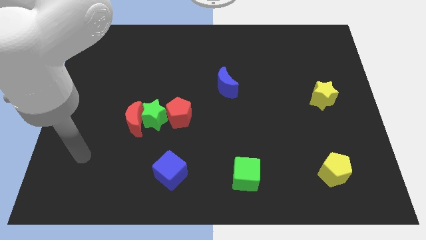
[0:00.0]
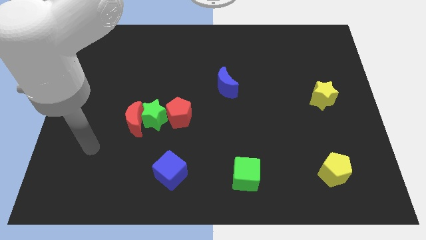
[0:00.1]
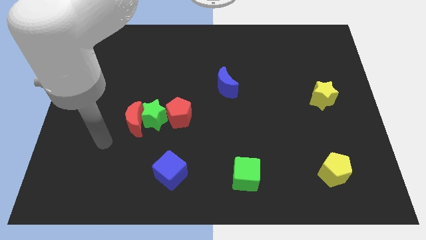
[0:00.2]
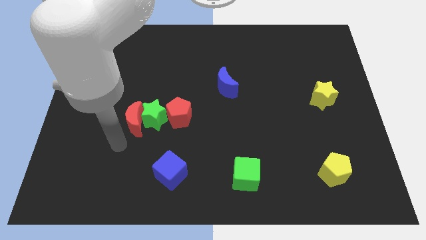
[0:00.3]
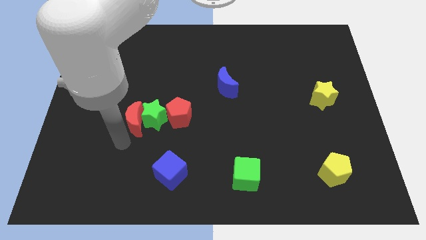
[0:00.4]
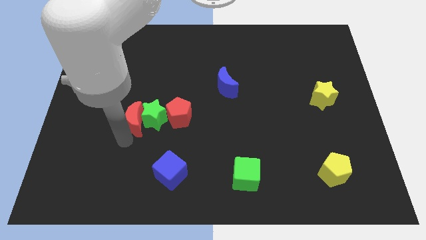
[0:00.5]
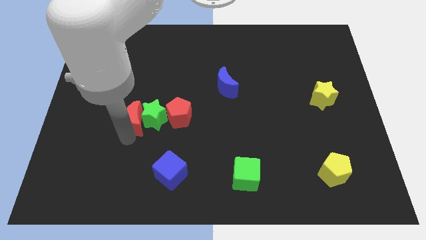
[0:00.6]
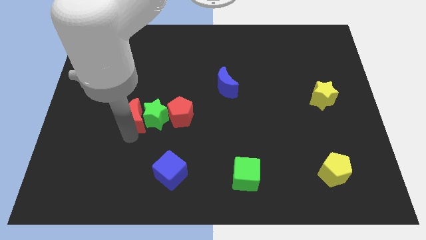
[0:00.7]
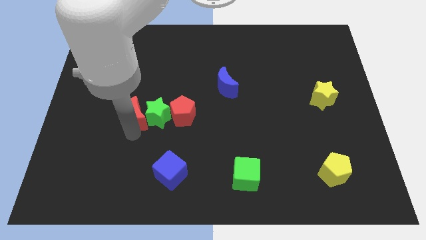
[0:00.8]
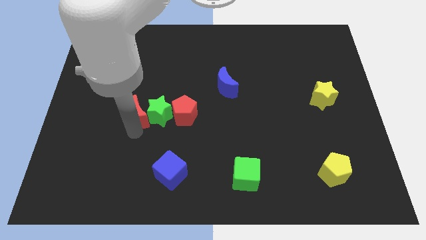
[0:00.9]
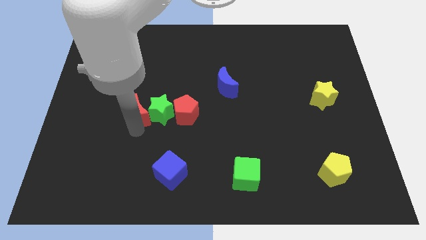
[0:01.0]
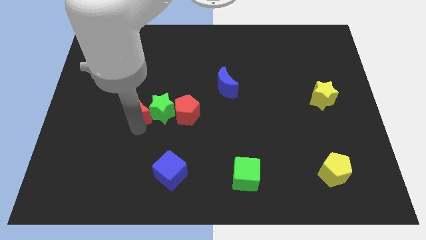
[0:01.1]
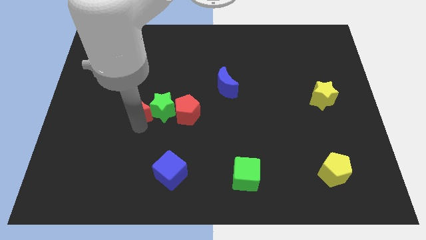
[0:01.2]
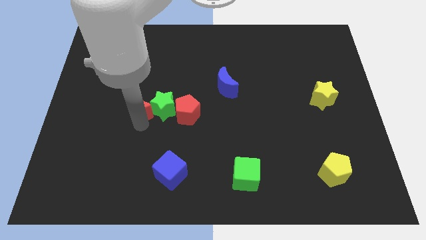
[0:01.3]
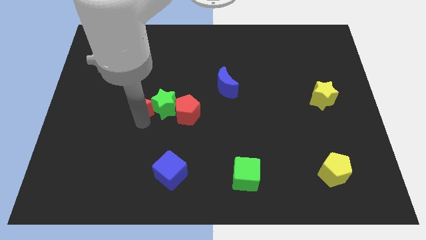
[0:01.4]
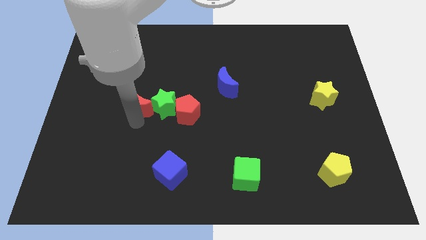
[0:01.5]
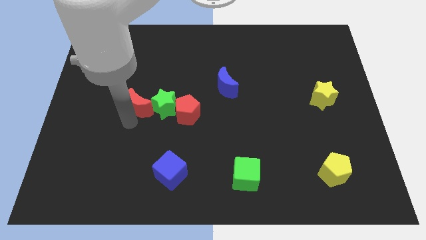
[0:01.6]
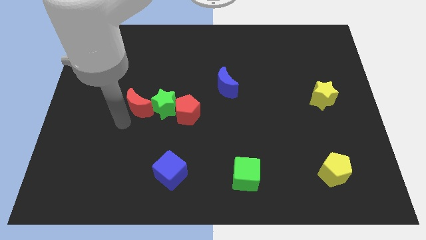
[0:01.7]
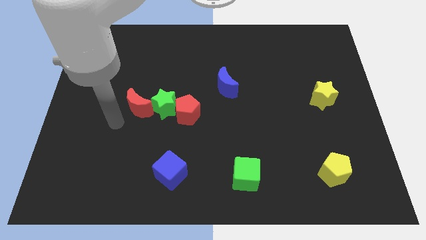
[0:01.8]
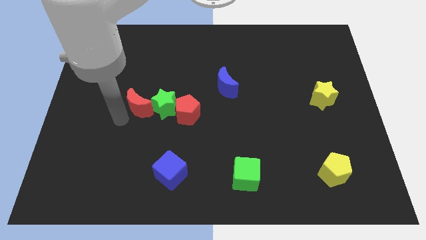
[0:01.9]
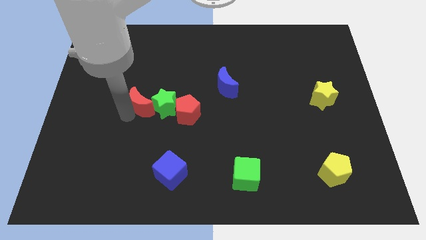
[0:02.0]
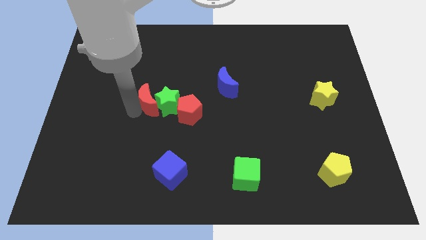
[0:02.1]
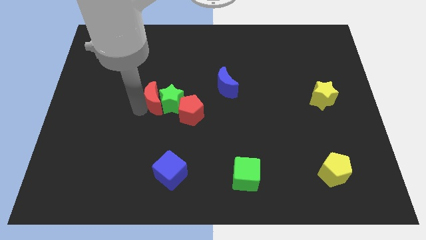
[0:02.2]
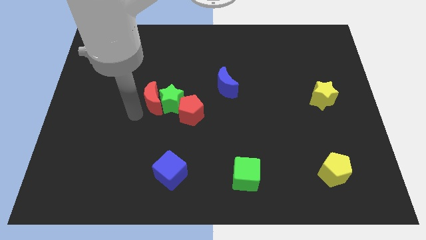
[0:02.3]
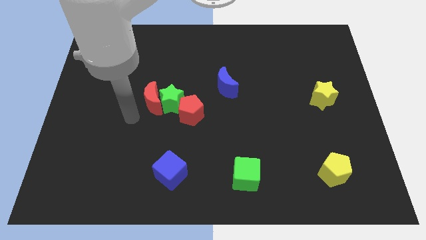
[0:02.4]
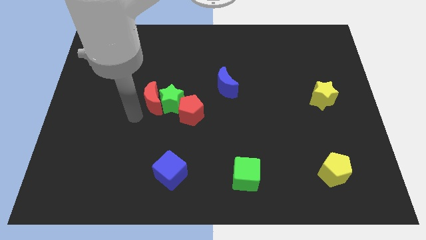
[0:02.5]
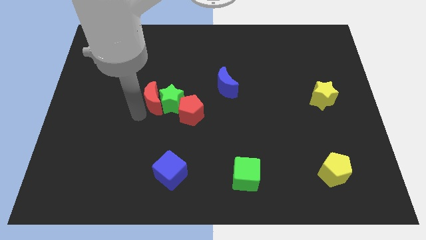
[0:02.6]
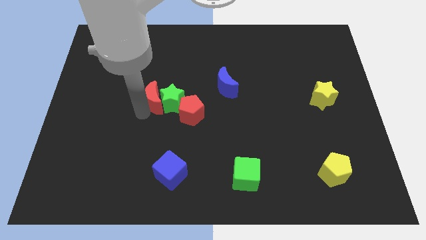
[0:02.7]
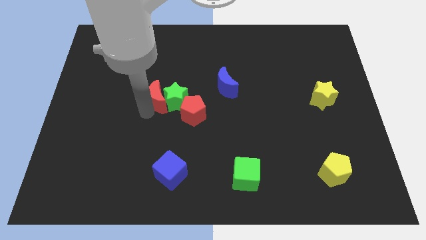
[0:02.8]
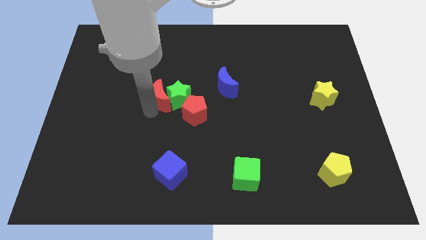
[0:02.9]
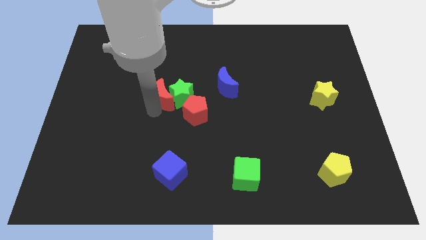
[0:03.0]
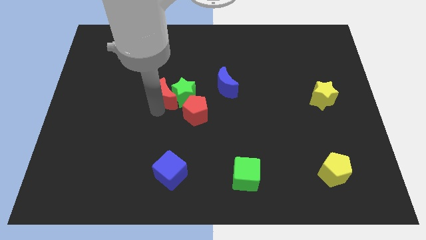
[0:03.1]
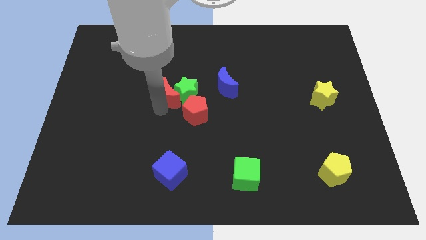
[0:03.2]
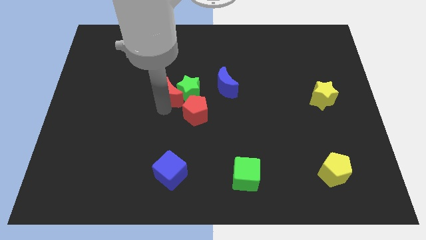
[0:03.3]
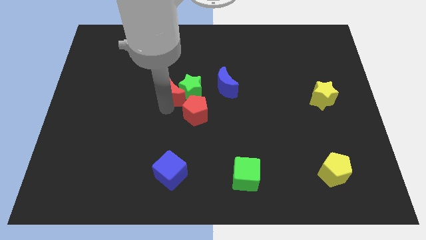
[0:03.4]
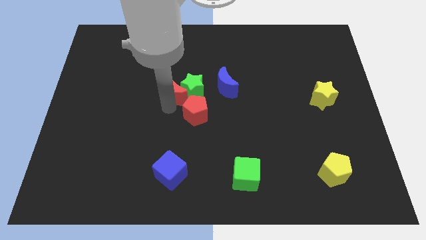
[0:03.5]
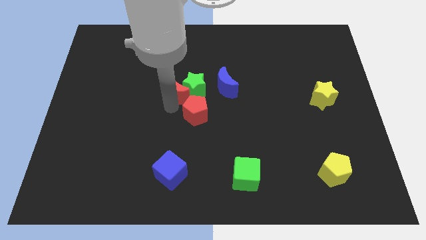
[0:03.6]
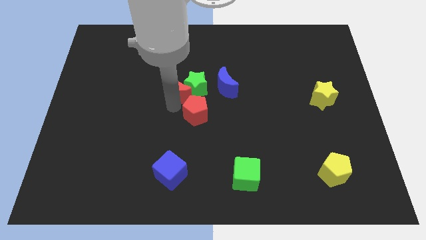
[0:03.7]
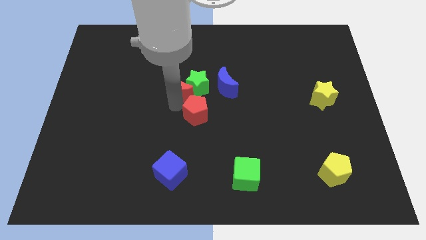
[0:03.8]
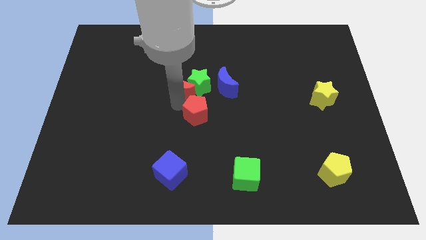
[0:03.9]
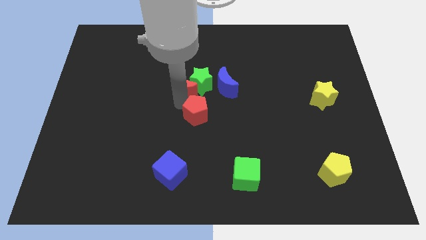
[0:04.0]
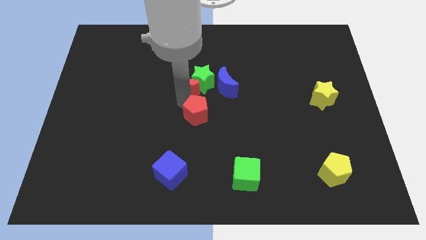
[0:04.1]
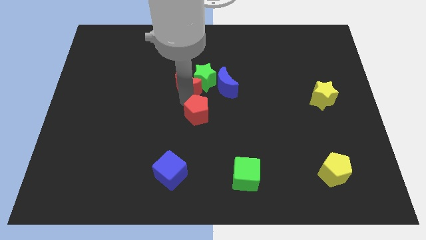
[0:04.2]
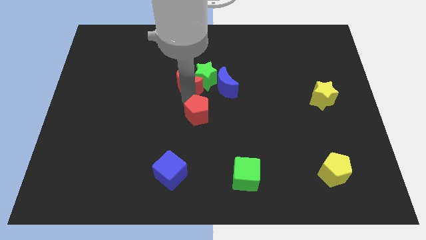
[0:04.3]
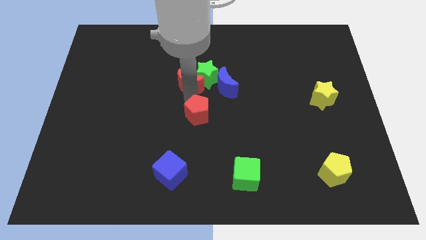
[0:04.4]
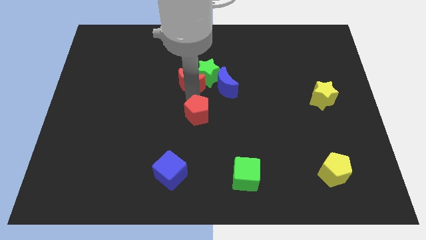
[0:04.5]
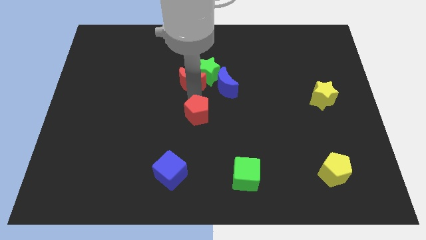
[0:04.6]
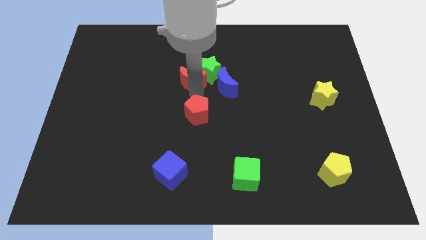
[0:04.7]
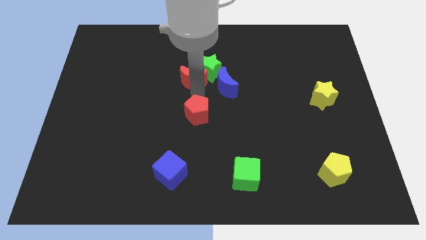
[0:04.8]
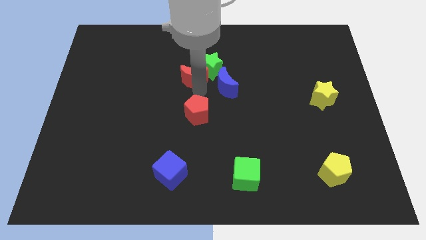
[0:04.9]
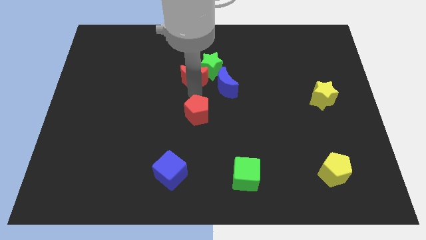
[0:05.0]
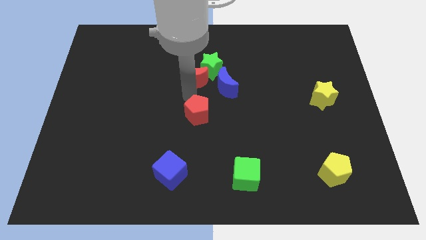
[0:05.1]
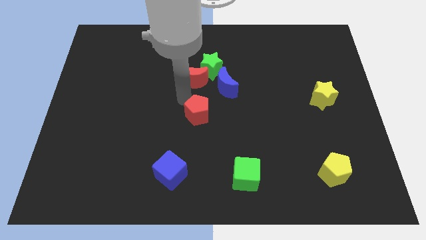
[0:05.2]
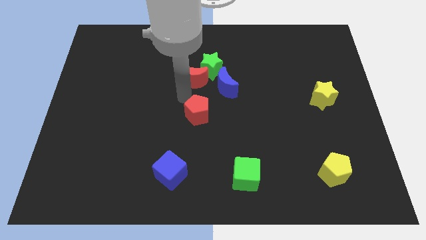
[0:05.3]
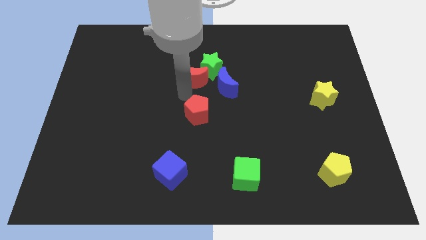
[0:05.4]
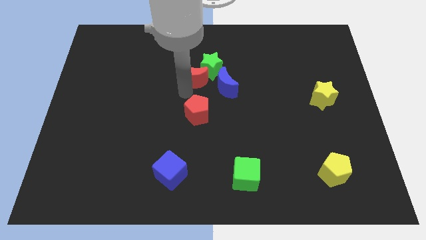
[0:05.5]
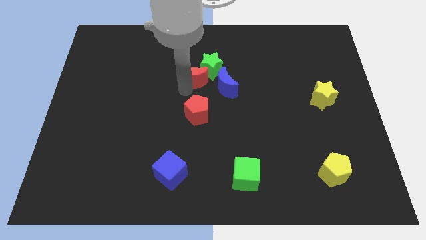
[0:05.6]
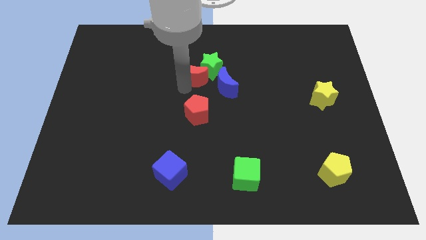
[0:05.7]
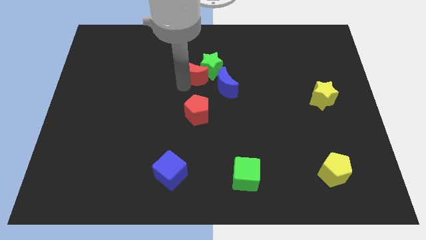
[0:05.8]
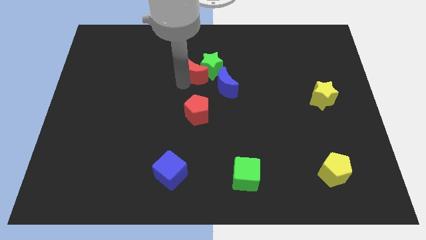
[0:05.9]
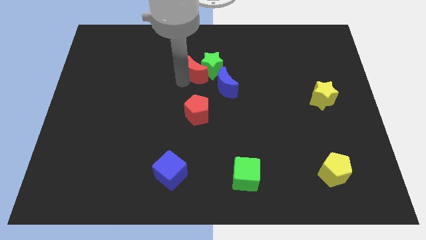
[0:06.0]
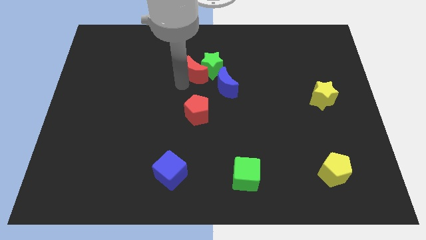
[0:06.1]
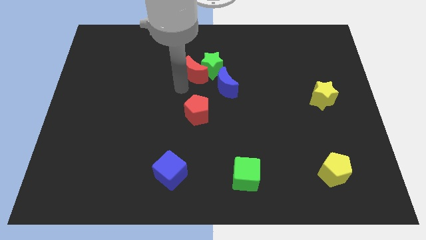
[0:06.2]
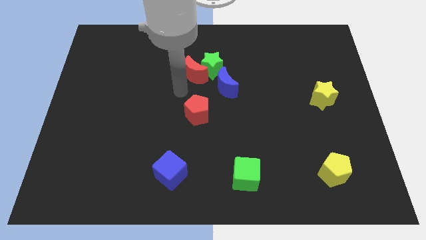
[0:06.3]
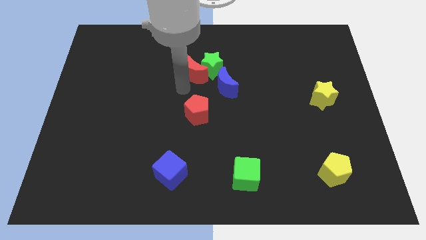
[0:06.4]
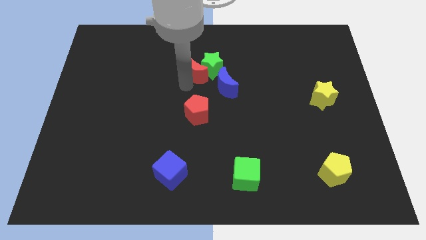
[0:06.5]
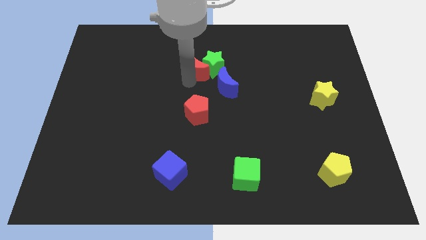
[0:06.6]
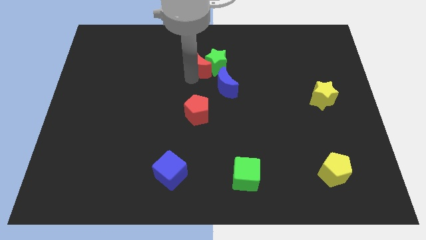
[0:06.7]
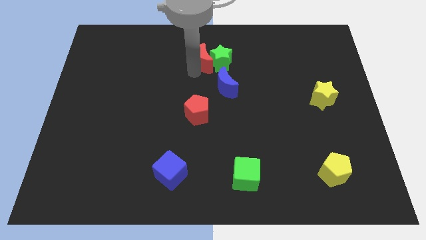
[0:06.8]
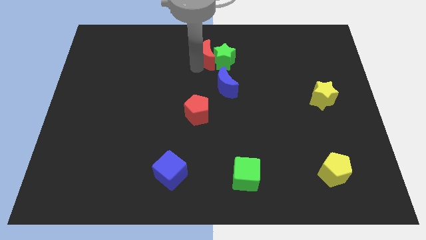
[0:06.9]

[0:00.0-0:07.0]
move the red moon to the top of the blue moon

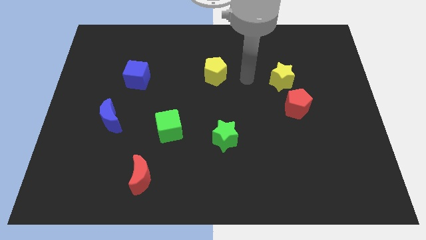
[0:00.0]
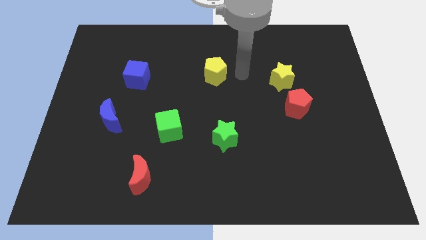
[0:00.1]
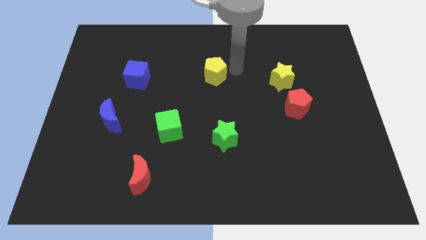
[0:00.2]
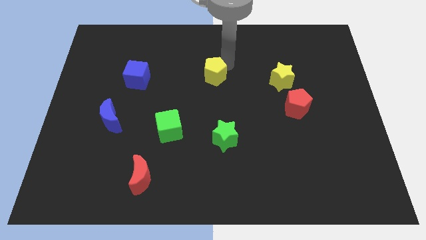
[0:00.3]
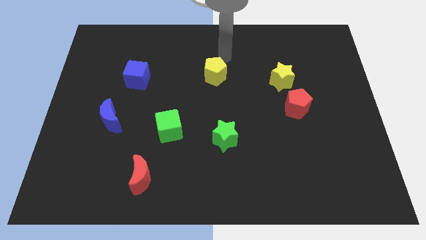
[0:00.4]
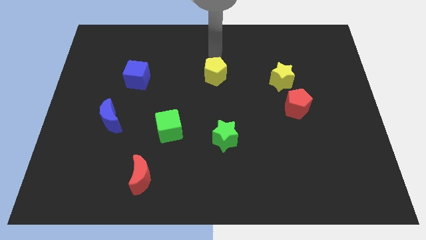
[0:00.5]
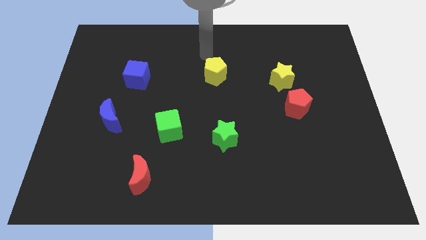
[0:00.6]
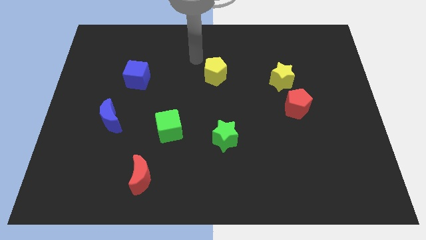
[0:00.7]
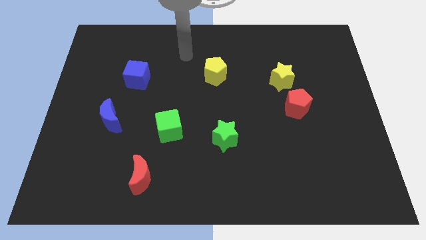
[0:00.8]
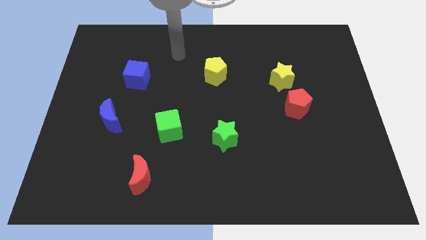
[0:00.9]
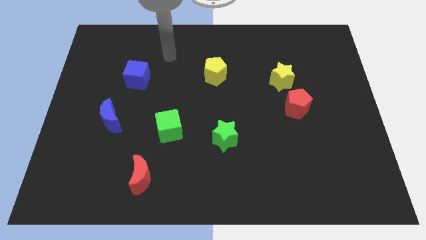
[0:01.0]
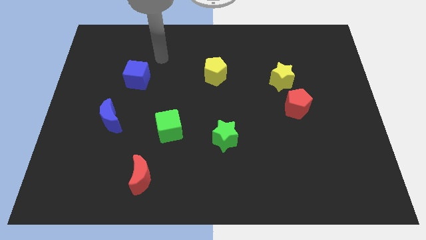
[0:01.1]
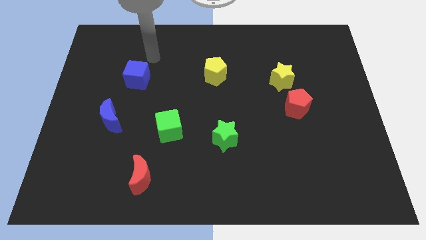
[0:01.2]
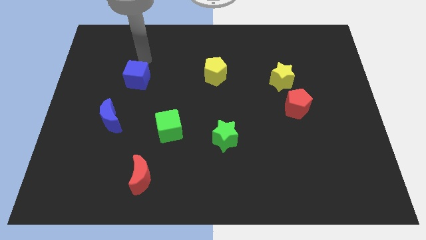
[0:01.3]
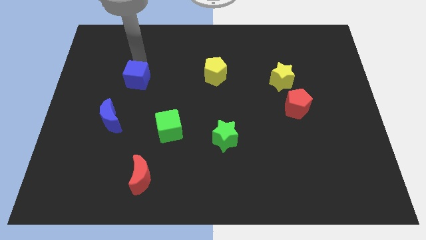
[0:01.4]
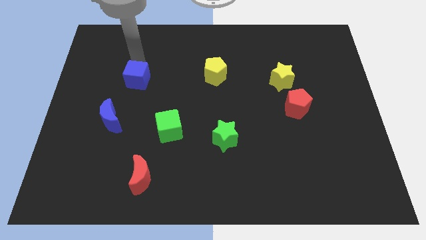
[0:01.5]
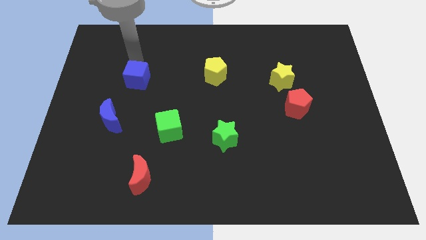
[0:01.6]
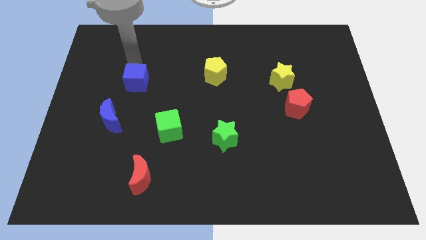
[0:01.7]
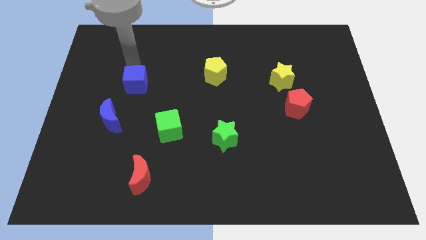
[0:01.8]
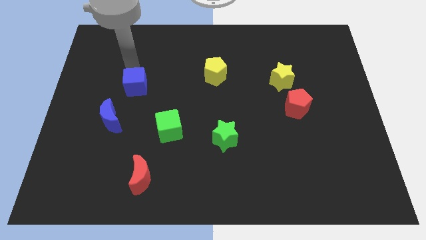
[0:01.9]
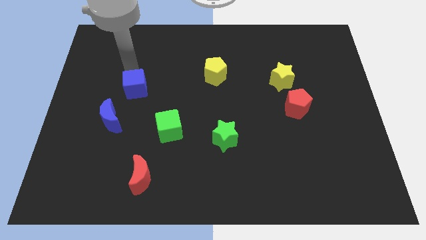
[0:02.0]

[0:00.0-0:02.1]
push the blue cube to the top right side of the blue moon
